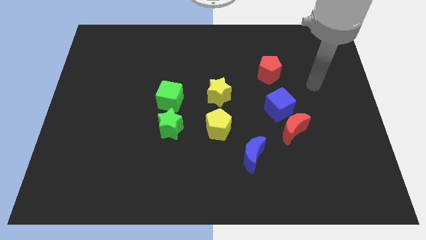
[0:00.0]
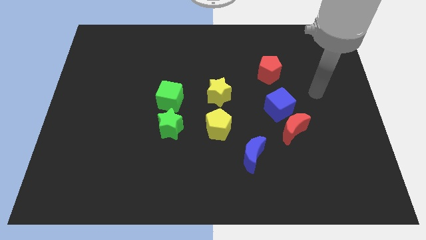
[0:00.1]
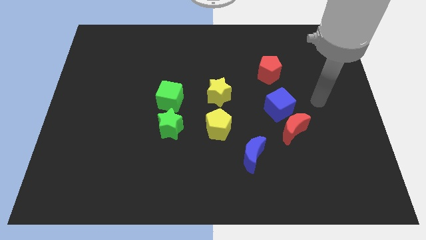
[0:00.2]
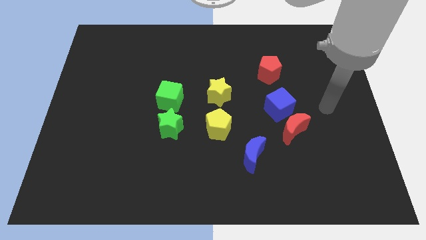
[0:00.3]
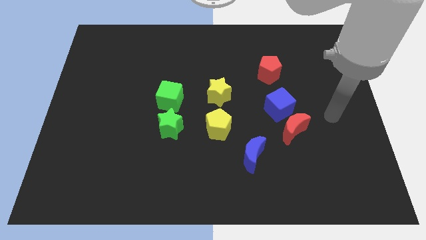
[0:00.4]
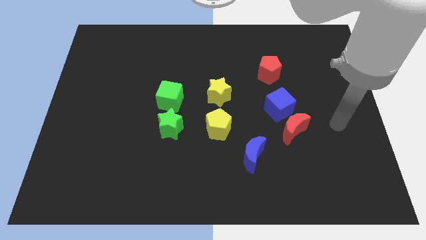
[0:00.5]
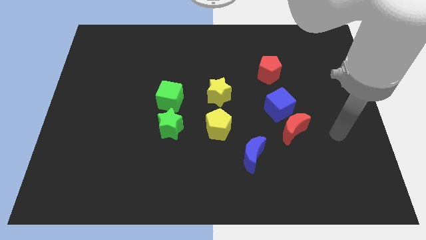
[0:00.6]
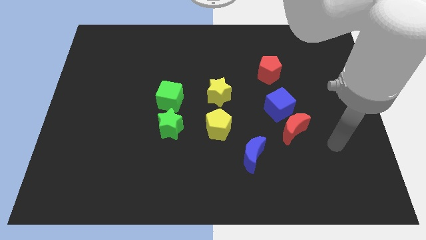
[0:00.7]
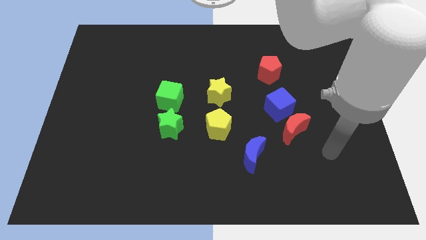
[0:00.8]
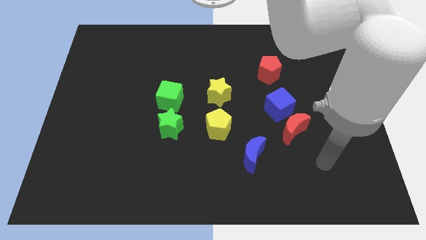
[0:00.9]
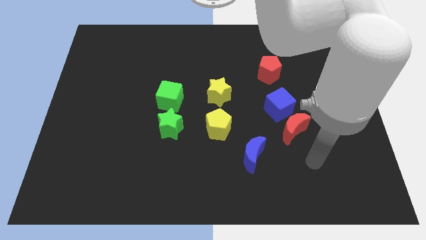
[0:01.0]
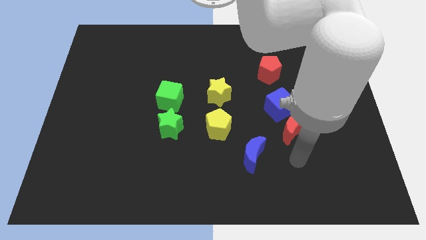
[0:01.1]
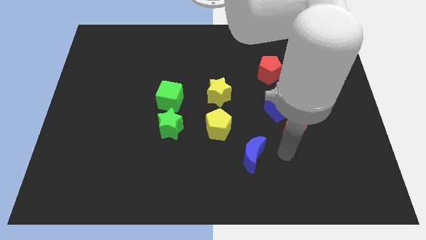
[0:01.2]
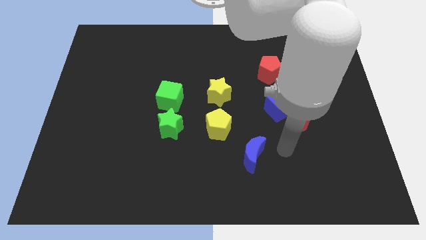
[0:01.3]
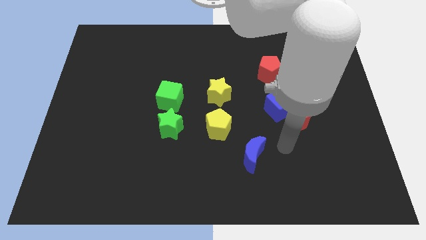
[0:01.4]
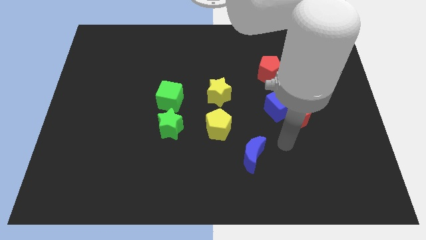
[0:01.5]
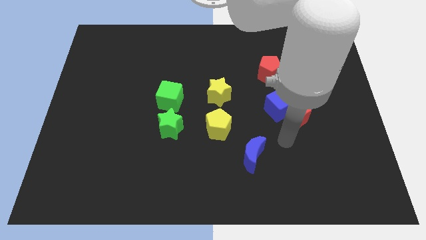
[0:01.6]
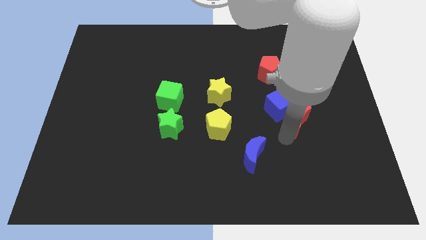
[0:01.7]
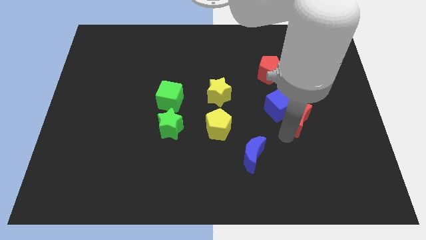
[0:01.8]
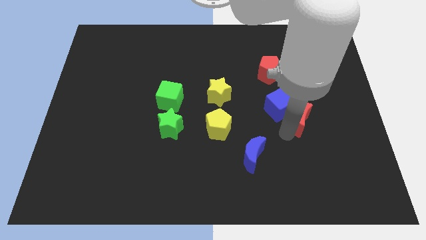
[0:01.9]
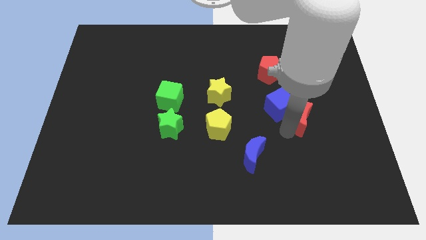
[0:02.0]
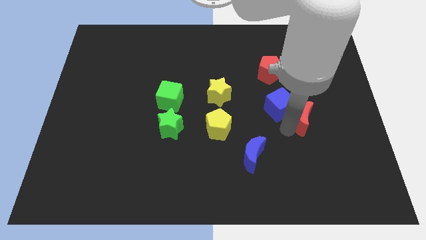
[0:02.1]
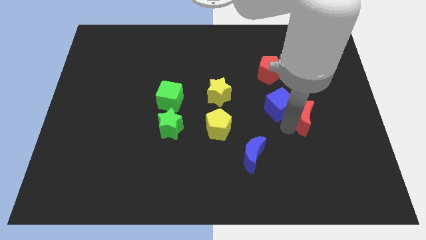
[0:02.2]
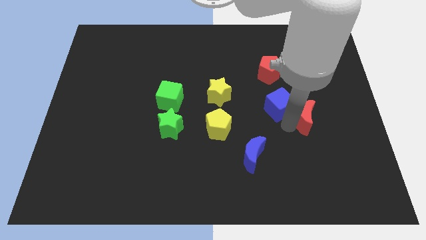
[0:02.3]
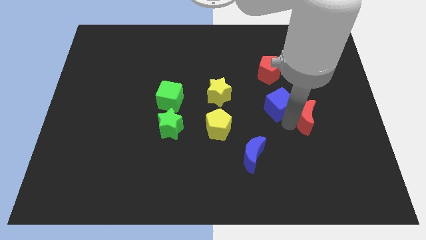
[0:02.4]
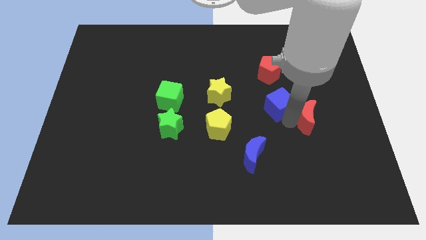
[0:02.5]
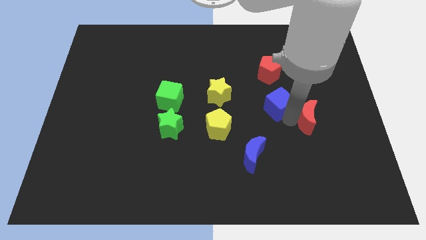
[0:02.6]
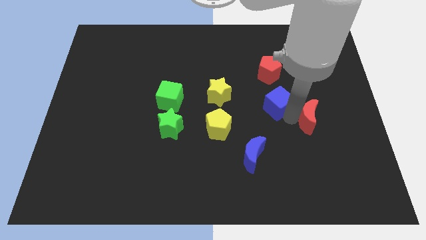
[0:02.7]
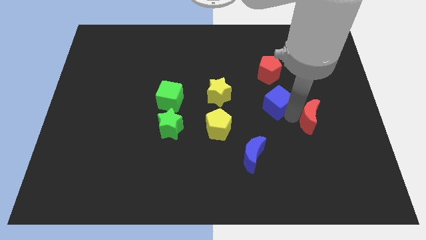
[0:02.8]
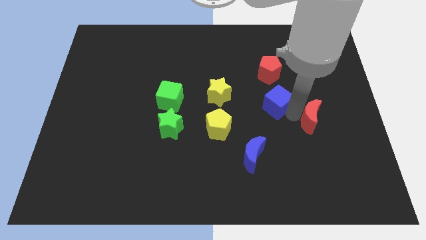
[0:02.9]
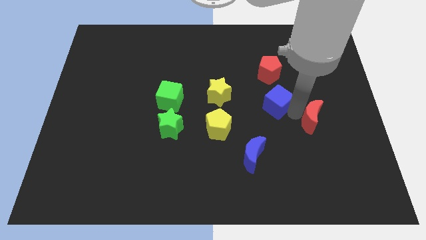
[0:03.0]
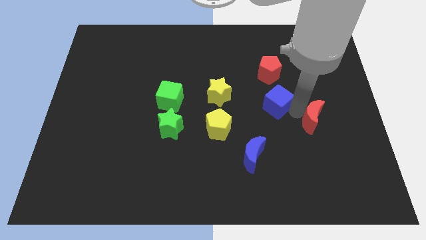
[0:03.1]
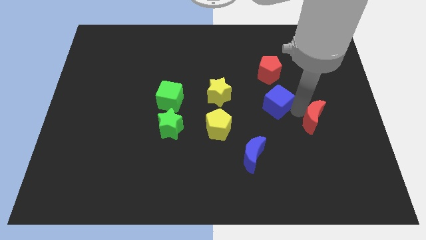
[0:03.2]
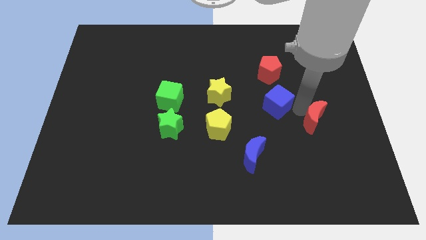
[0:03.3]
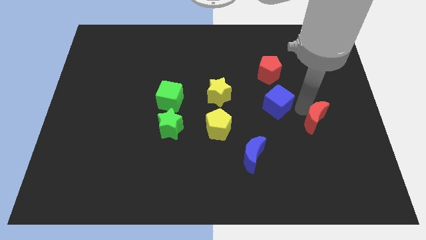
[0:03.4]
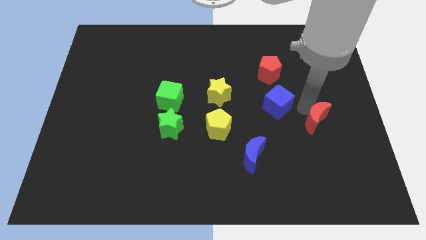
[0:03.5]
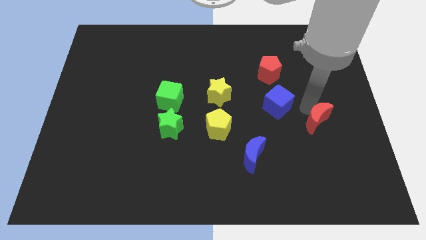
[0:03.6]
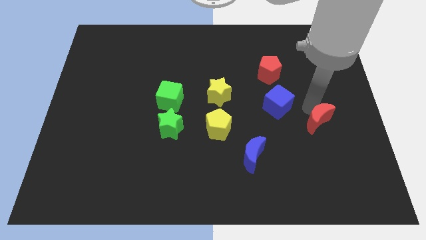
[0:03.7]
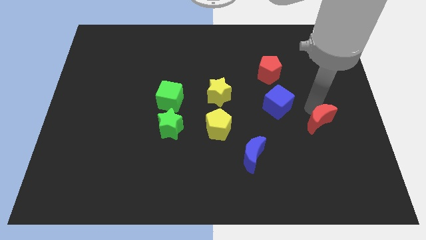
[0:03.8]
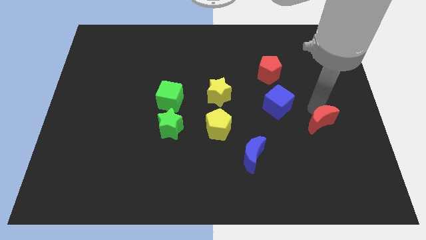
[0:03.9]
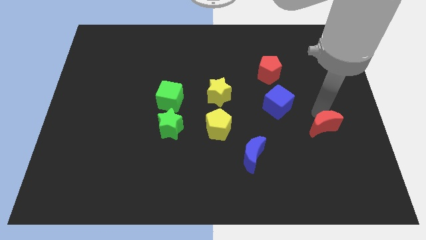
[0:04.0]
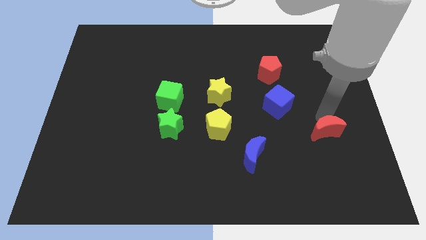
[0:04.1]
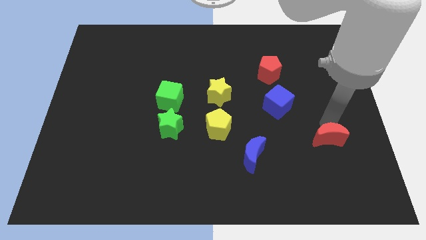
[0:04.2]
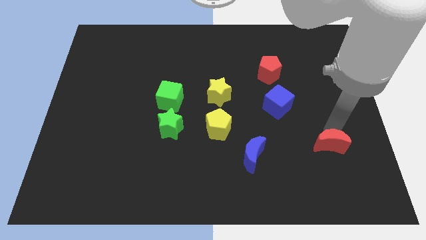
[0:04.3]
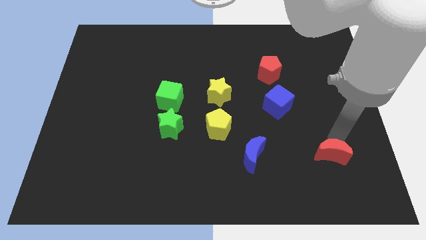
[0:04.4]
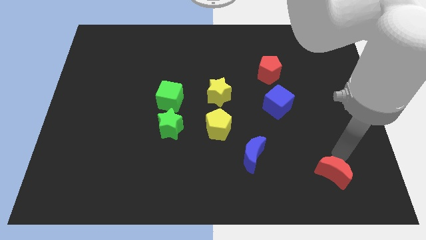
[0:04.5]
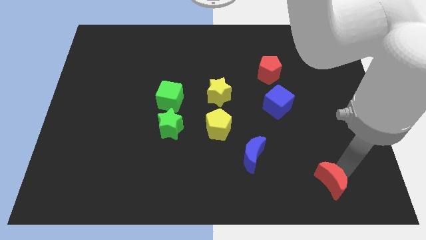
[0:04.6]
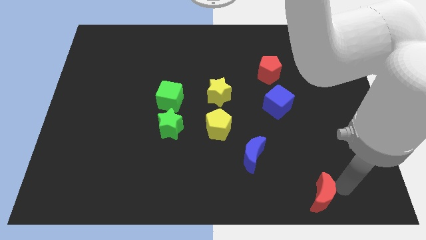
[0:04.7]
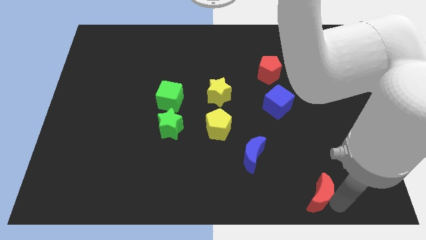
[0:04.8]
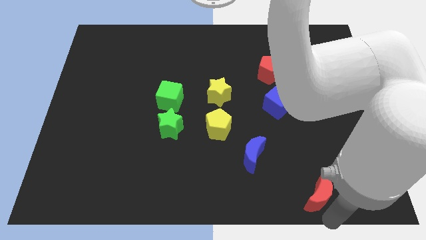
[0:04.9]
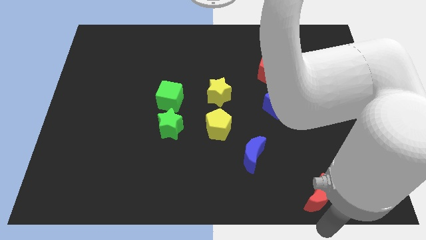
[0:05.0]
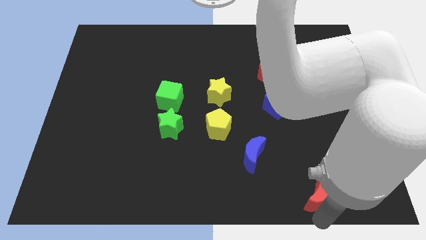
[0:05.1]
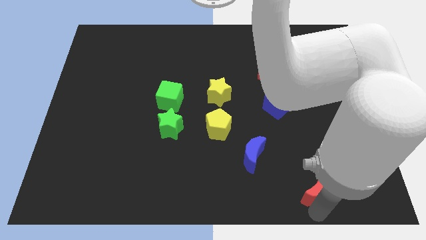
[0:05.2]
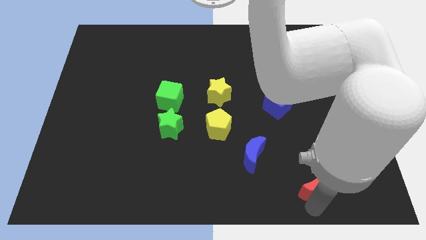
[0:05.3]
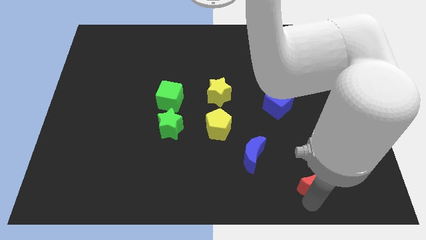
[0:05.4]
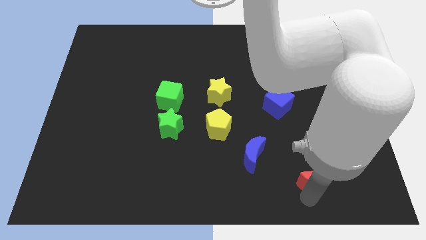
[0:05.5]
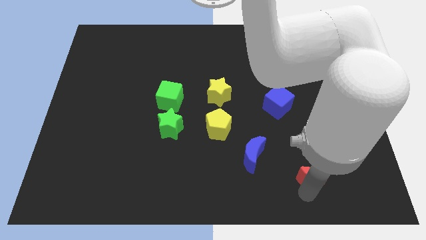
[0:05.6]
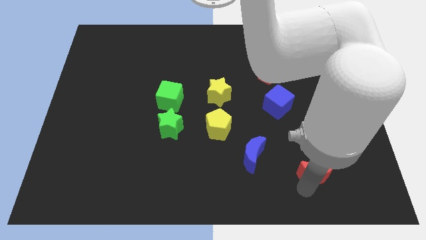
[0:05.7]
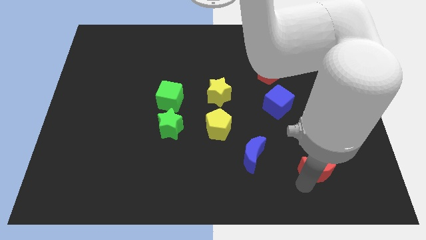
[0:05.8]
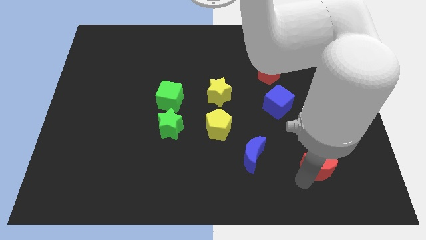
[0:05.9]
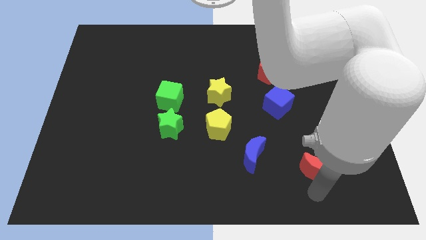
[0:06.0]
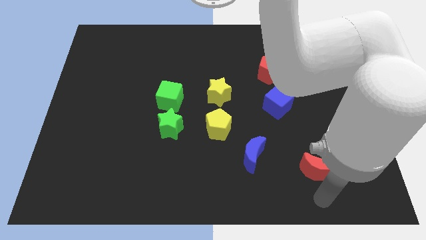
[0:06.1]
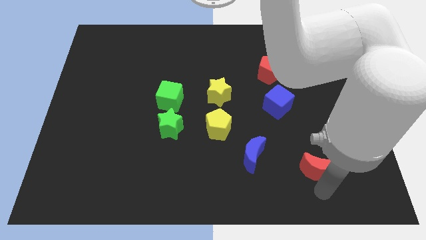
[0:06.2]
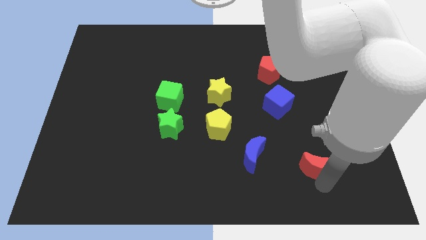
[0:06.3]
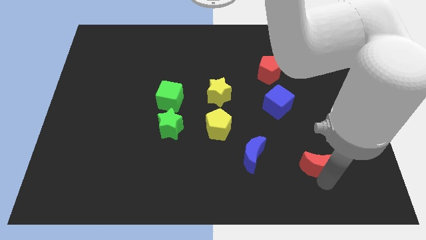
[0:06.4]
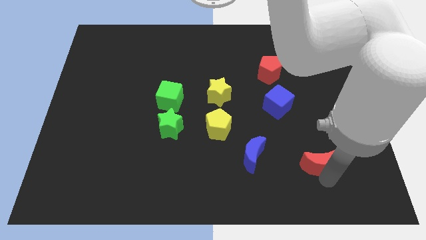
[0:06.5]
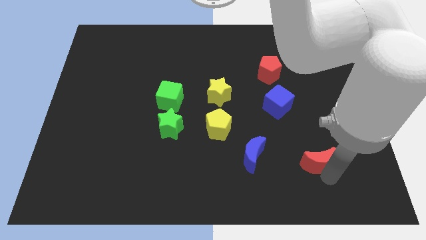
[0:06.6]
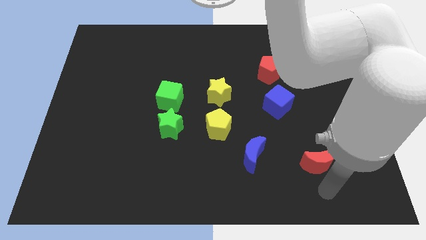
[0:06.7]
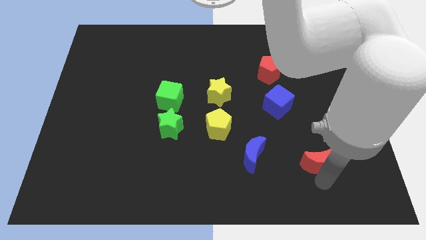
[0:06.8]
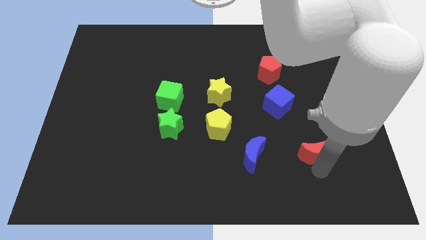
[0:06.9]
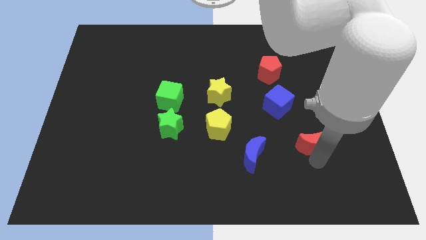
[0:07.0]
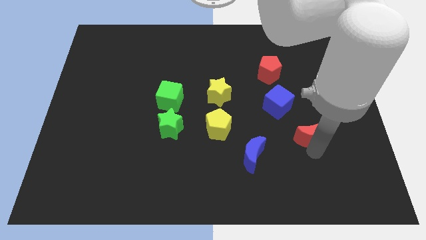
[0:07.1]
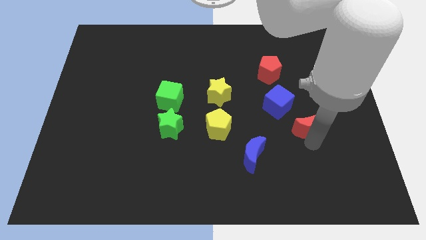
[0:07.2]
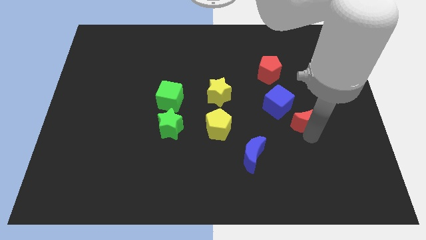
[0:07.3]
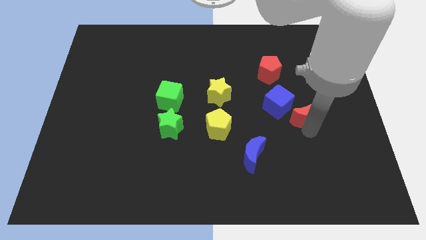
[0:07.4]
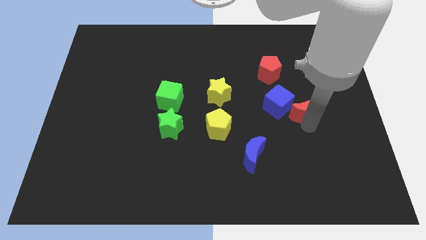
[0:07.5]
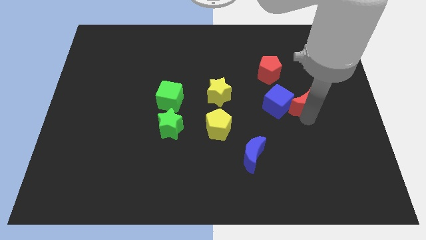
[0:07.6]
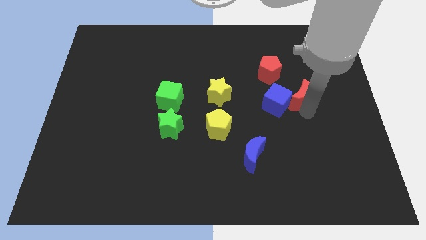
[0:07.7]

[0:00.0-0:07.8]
slide the red moon diagonally down and to the right of the red pentagon
